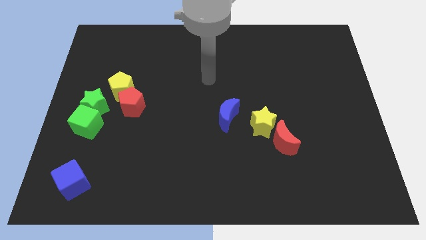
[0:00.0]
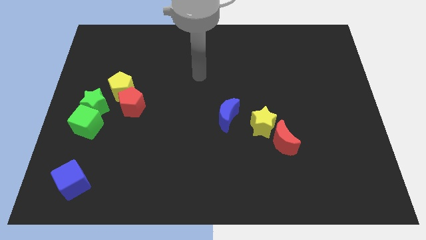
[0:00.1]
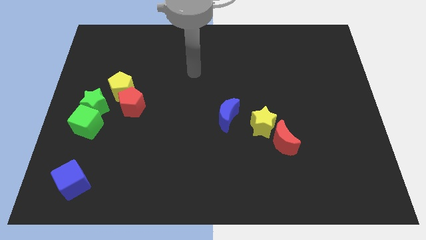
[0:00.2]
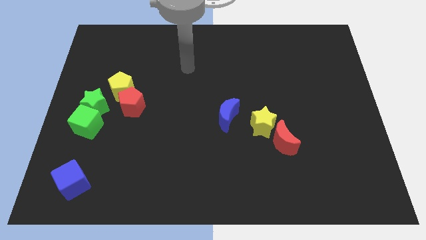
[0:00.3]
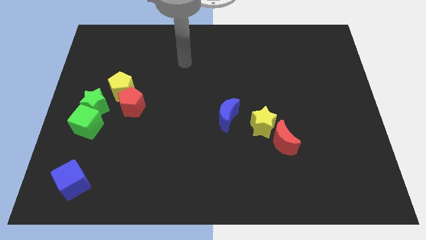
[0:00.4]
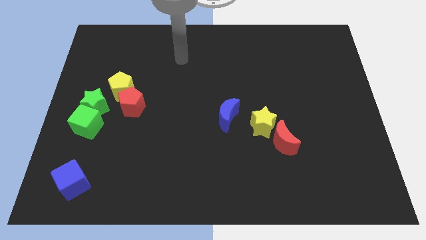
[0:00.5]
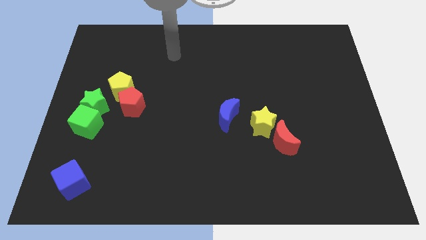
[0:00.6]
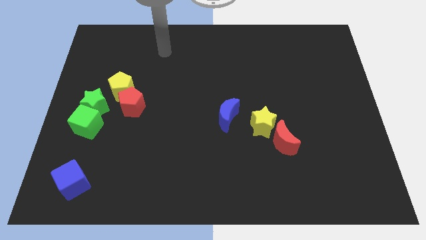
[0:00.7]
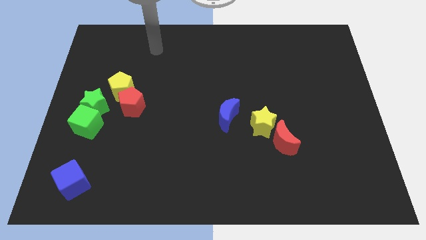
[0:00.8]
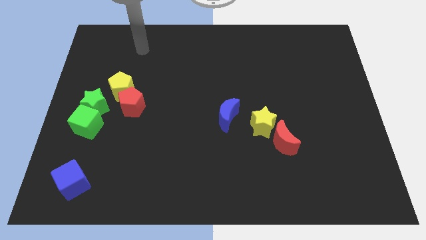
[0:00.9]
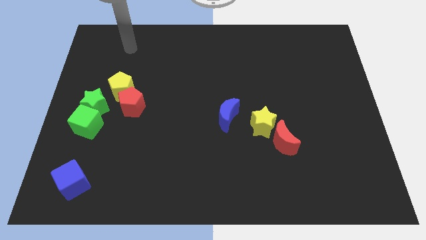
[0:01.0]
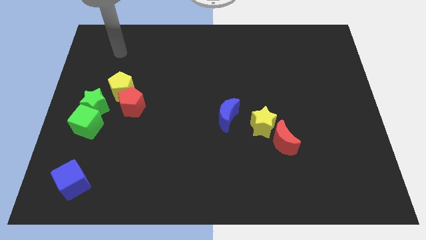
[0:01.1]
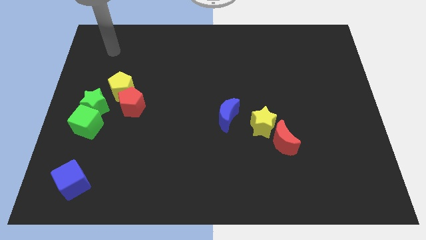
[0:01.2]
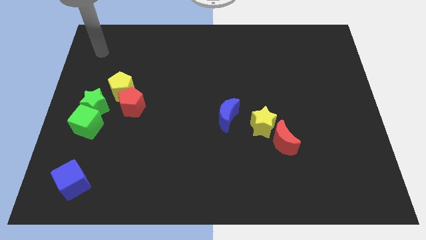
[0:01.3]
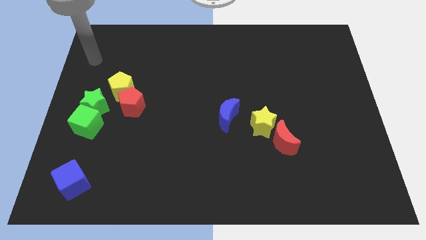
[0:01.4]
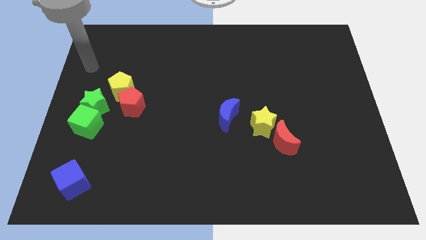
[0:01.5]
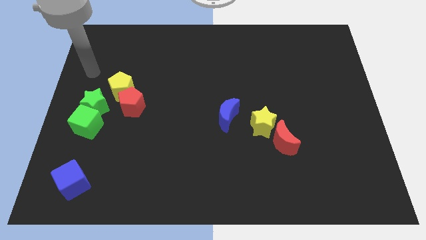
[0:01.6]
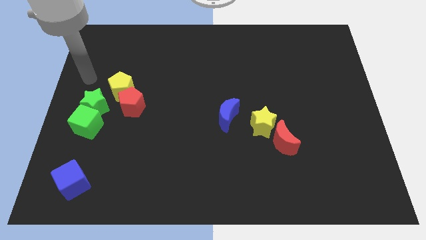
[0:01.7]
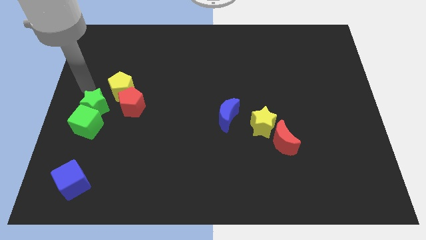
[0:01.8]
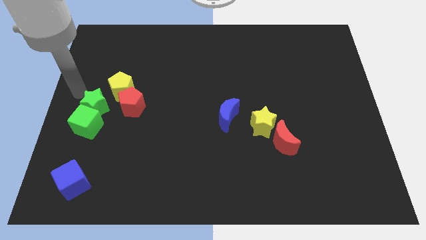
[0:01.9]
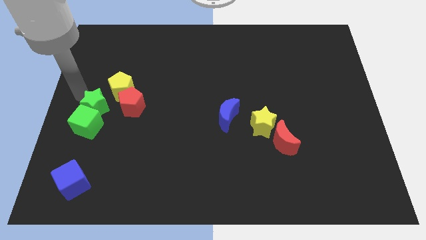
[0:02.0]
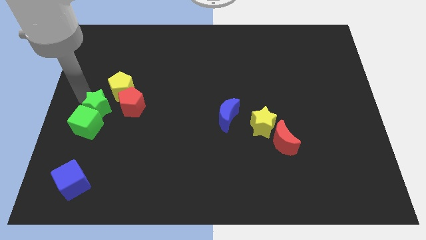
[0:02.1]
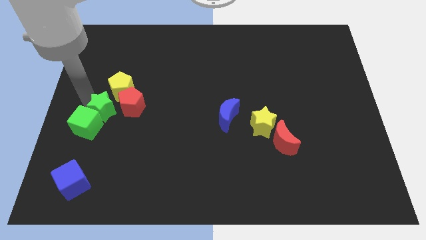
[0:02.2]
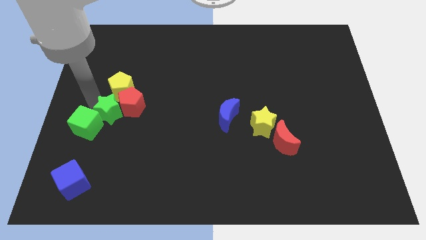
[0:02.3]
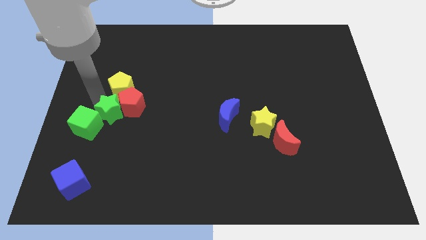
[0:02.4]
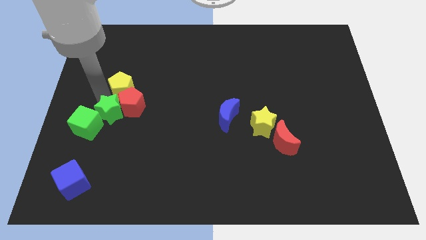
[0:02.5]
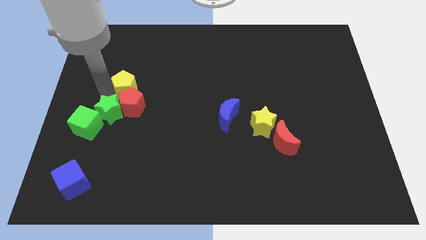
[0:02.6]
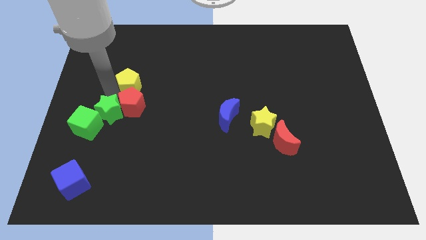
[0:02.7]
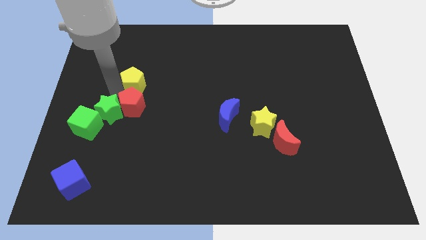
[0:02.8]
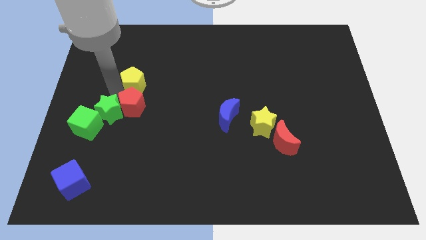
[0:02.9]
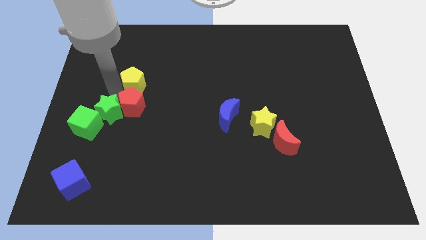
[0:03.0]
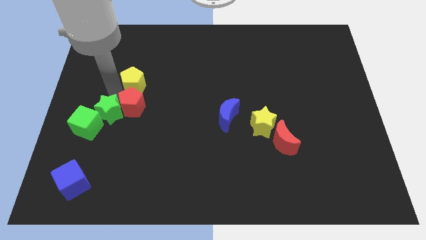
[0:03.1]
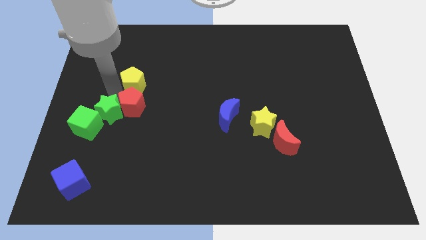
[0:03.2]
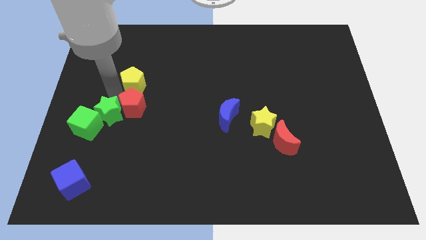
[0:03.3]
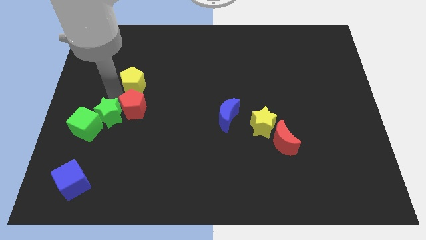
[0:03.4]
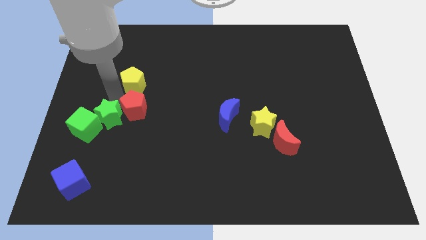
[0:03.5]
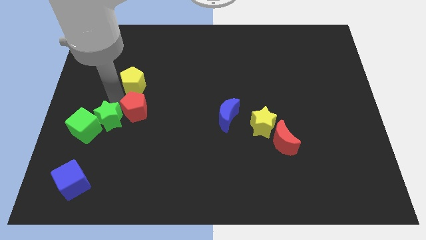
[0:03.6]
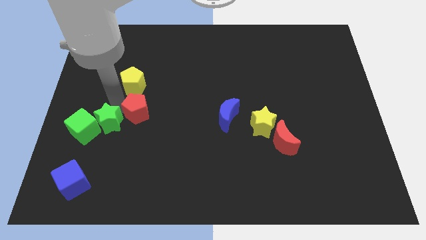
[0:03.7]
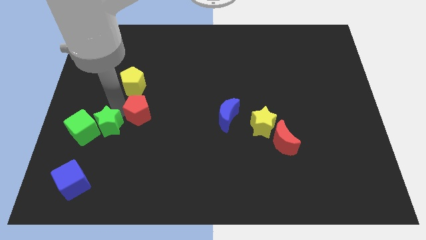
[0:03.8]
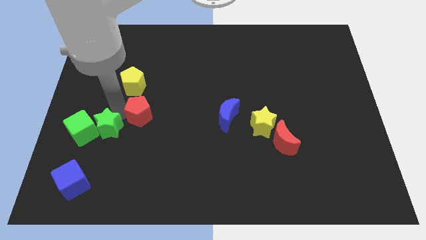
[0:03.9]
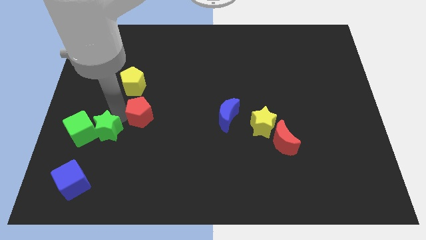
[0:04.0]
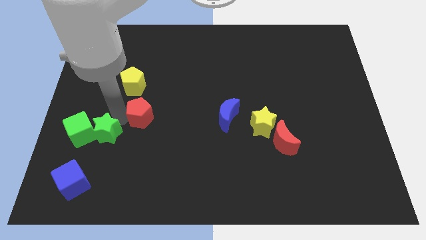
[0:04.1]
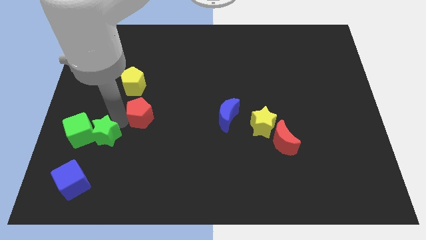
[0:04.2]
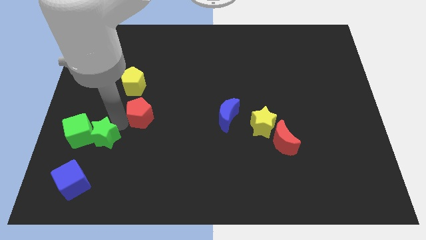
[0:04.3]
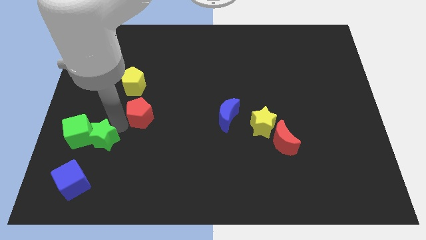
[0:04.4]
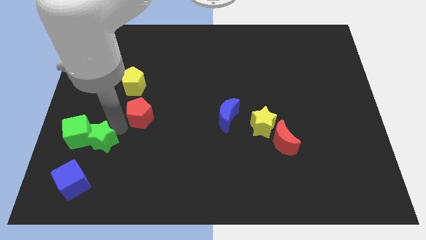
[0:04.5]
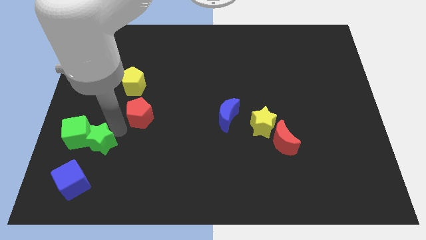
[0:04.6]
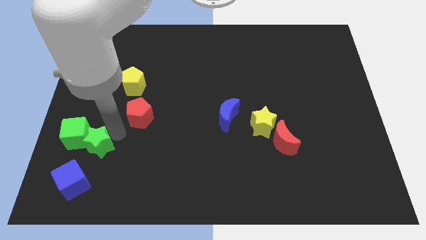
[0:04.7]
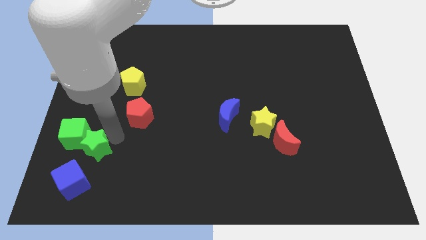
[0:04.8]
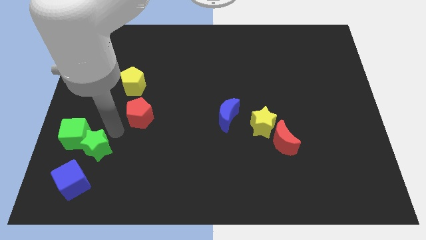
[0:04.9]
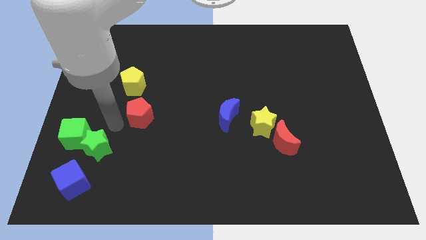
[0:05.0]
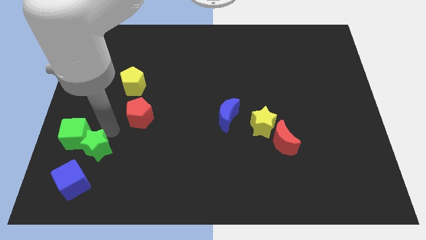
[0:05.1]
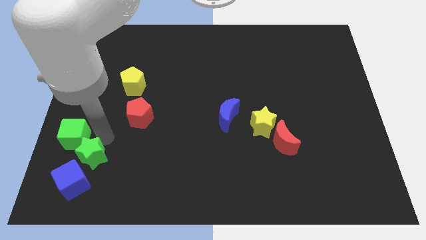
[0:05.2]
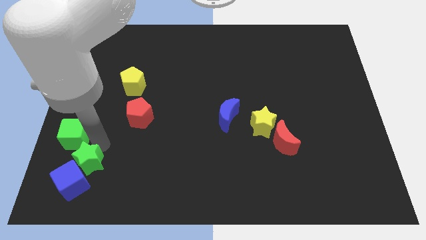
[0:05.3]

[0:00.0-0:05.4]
slide the green star next to the blue cube

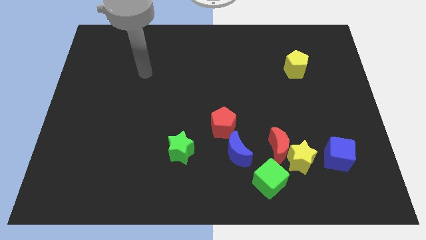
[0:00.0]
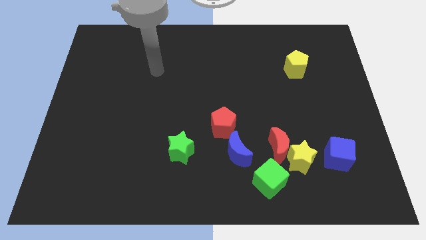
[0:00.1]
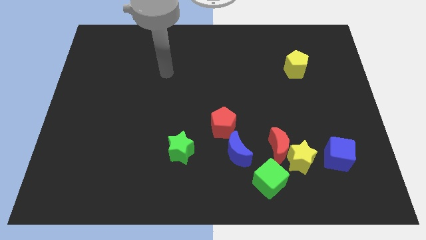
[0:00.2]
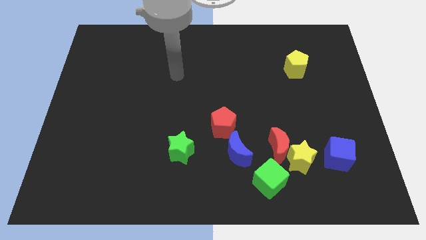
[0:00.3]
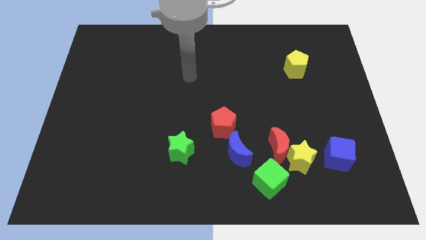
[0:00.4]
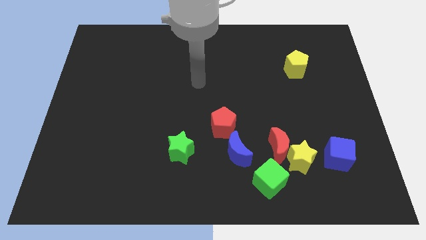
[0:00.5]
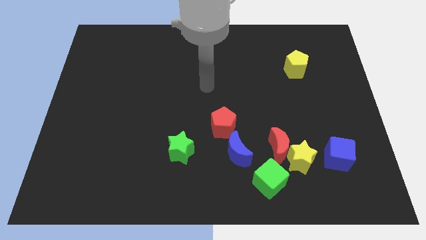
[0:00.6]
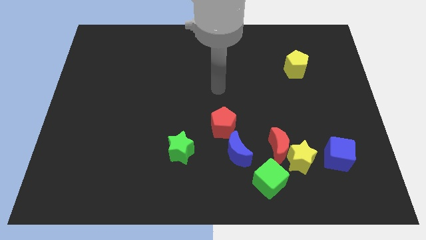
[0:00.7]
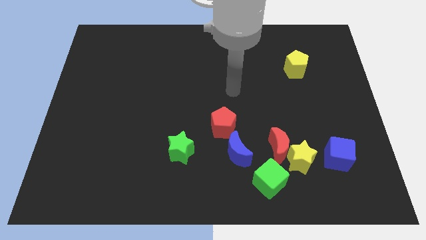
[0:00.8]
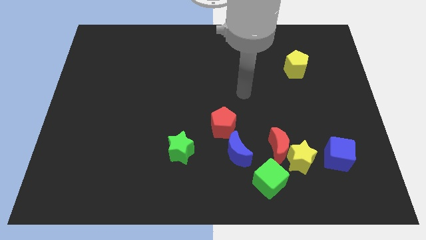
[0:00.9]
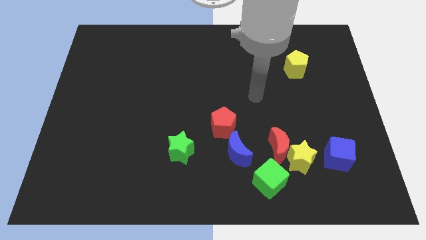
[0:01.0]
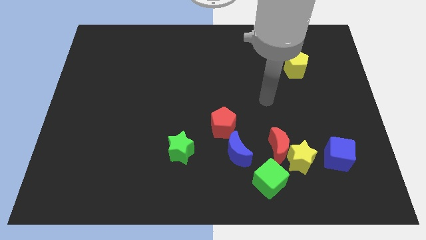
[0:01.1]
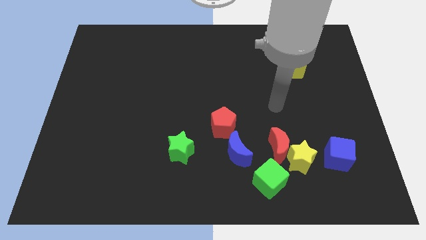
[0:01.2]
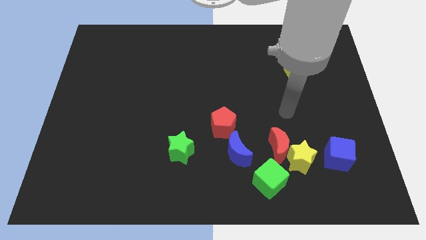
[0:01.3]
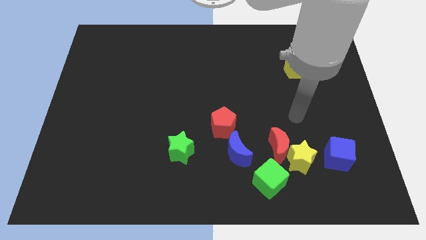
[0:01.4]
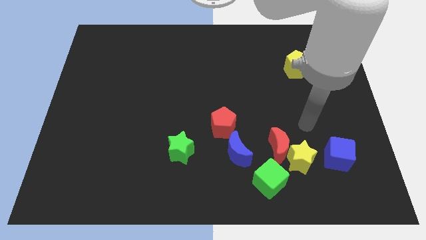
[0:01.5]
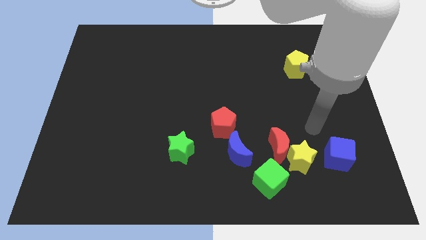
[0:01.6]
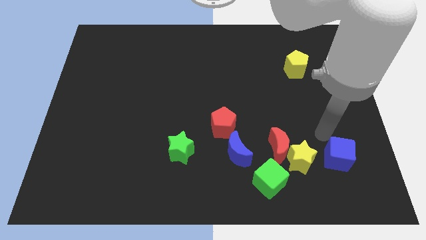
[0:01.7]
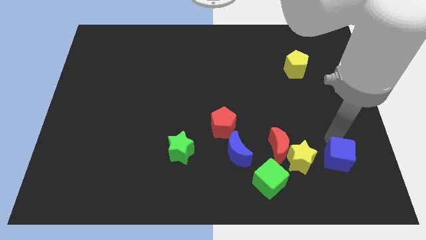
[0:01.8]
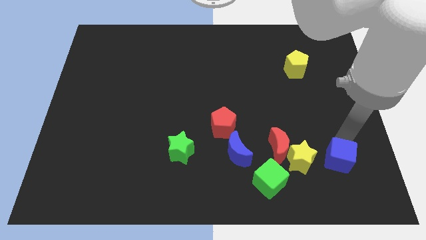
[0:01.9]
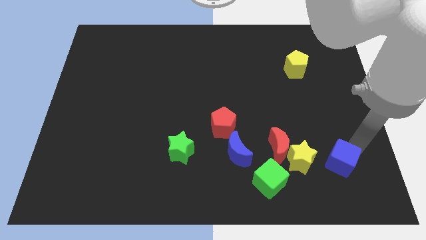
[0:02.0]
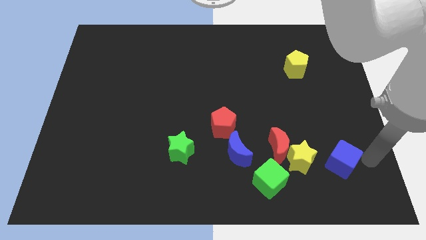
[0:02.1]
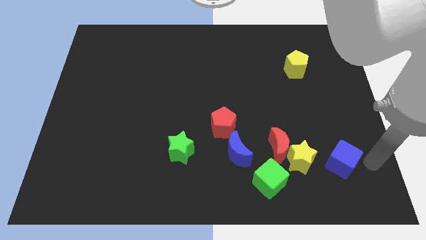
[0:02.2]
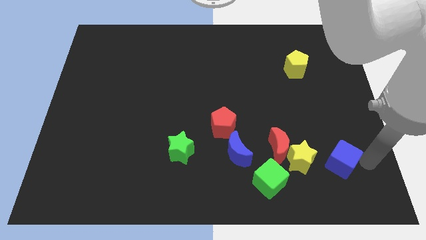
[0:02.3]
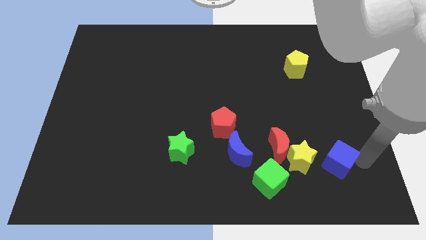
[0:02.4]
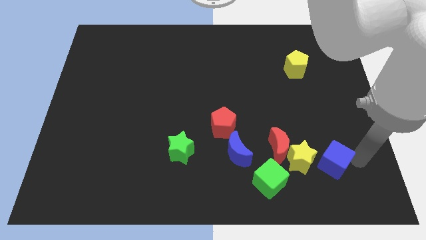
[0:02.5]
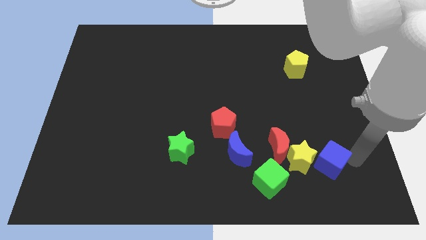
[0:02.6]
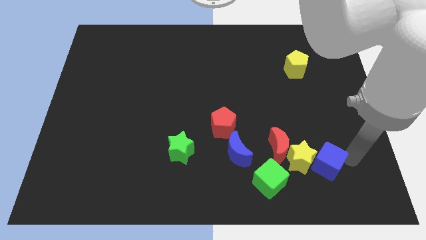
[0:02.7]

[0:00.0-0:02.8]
slide the blue cube to the yellow star

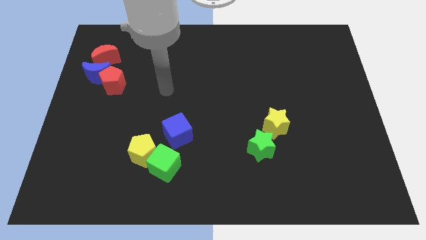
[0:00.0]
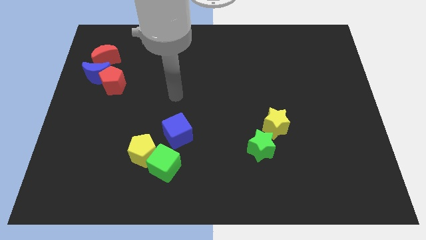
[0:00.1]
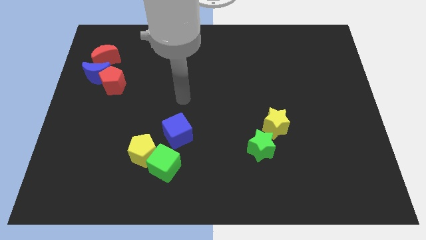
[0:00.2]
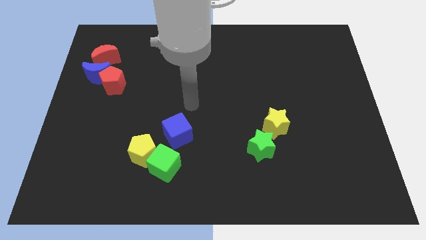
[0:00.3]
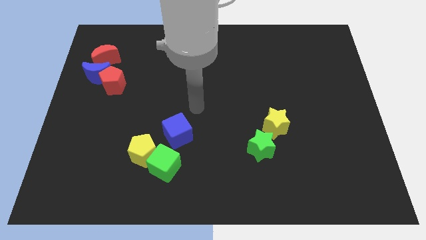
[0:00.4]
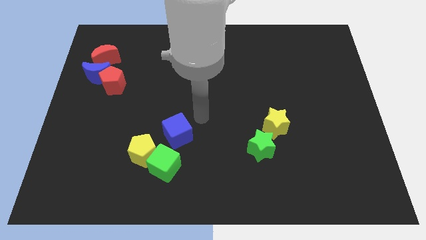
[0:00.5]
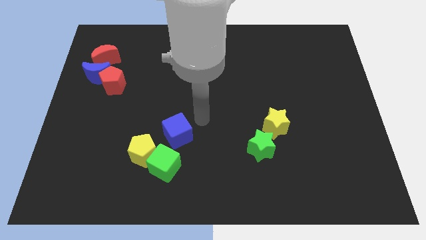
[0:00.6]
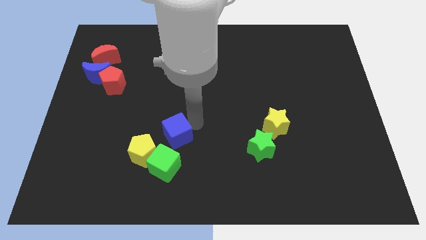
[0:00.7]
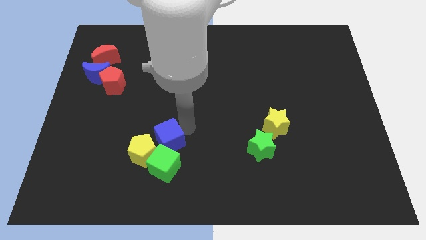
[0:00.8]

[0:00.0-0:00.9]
move the blue cube close to the yellow pentagon
